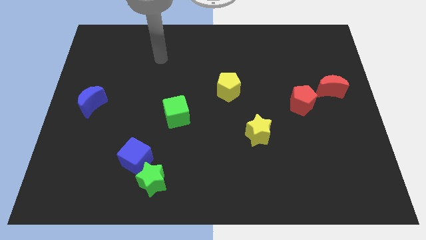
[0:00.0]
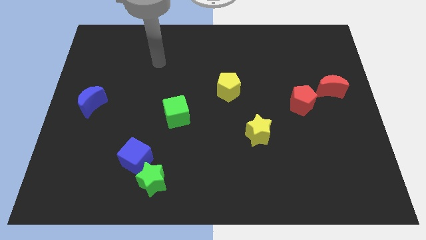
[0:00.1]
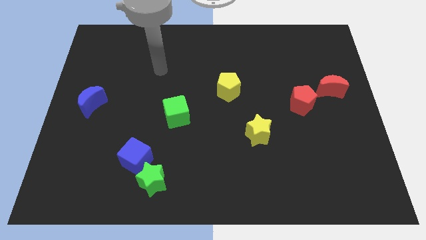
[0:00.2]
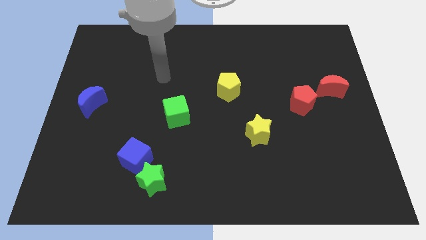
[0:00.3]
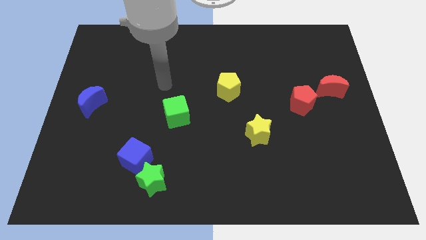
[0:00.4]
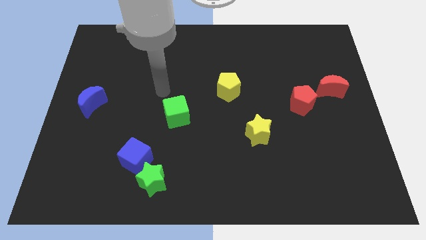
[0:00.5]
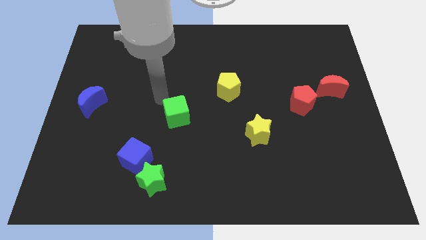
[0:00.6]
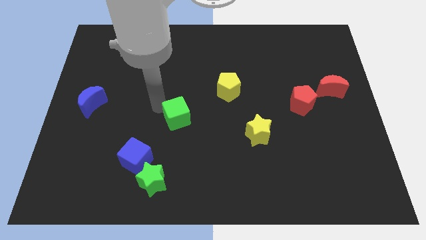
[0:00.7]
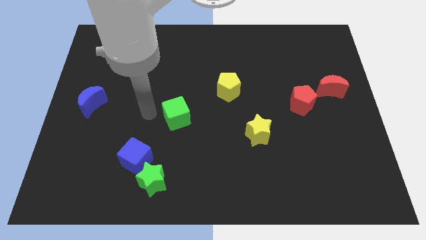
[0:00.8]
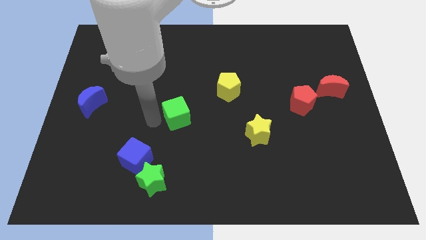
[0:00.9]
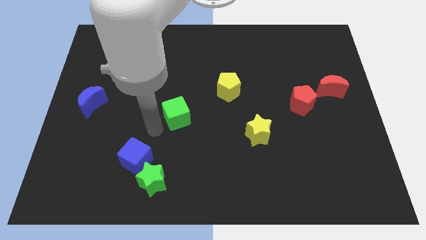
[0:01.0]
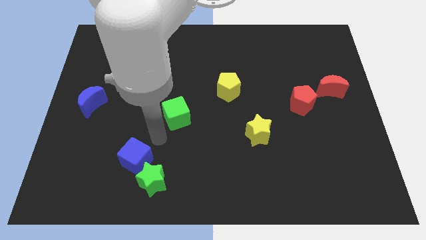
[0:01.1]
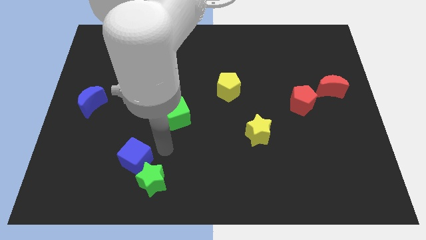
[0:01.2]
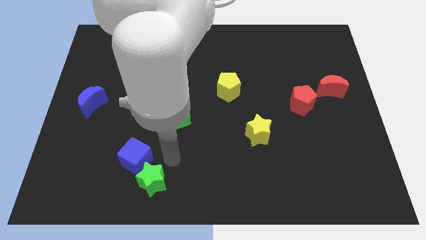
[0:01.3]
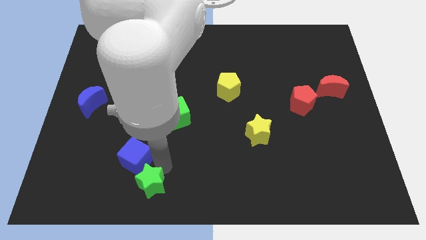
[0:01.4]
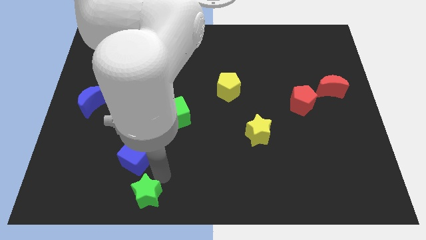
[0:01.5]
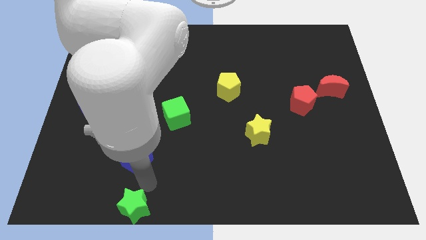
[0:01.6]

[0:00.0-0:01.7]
separate the blue cube from the green star

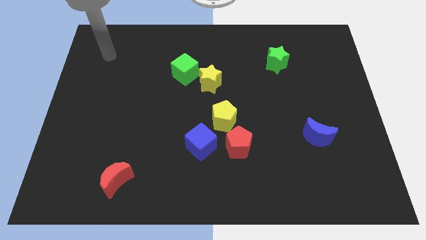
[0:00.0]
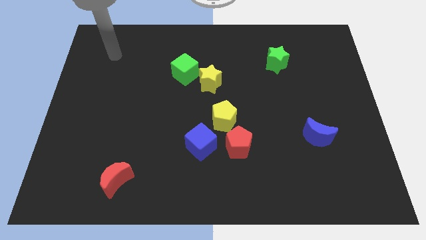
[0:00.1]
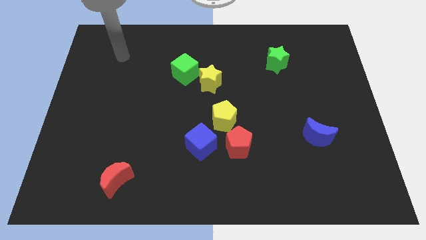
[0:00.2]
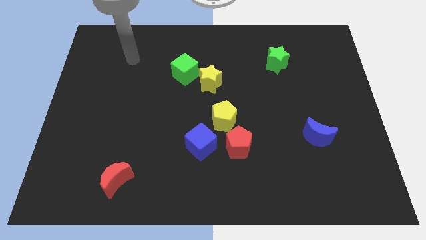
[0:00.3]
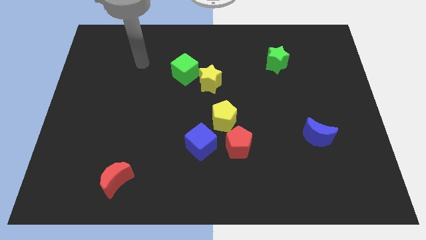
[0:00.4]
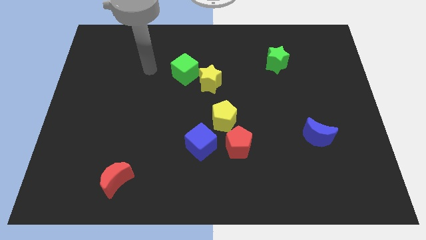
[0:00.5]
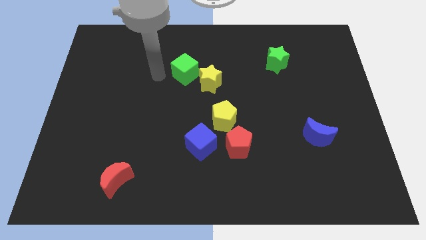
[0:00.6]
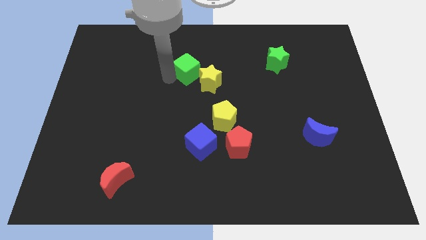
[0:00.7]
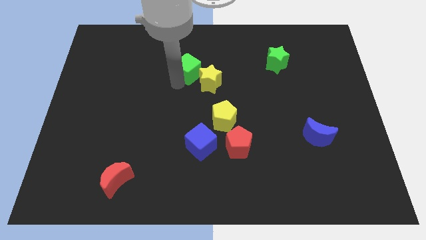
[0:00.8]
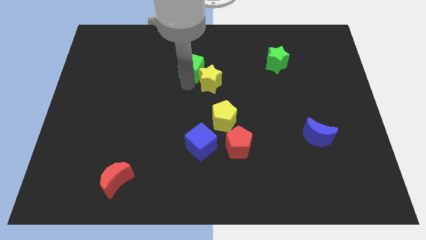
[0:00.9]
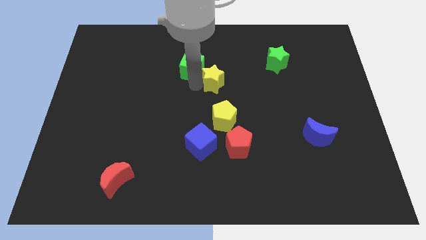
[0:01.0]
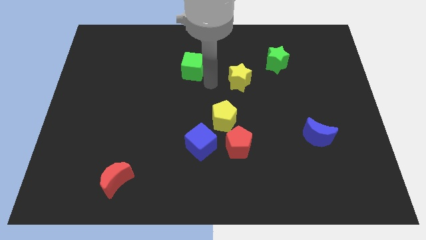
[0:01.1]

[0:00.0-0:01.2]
pull the green cube apart from the yellow star

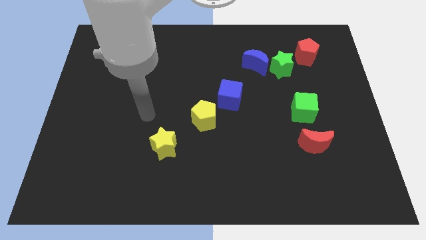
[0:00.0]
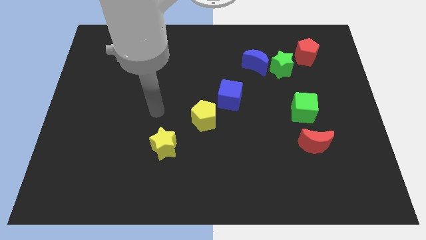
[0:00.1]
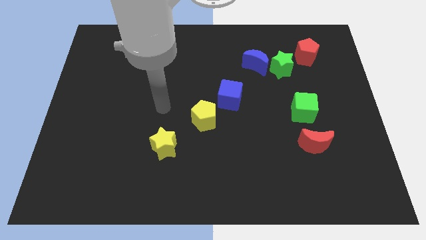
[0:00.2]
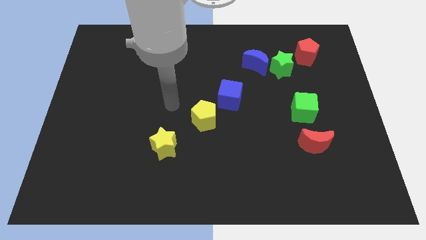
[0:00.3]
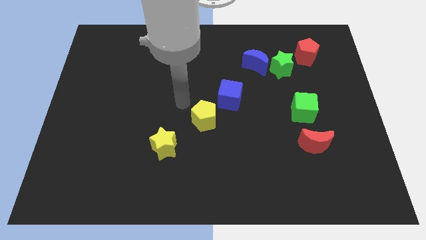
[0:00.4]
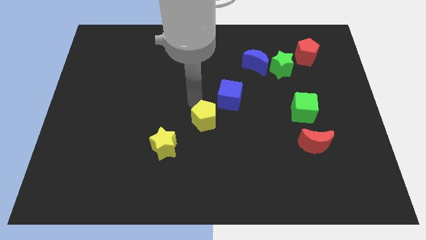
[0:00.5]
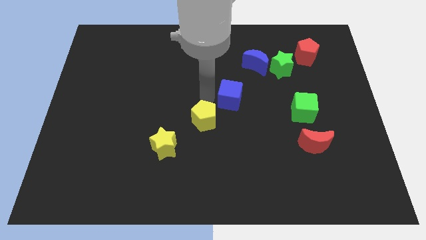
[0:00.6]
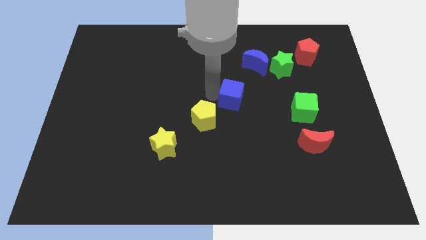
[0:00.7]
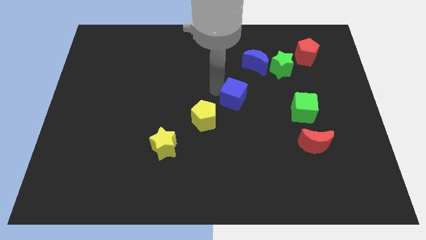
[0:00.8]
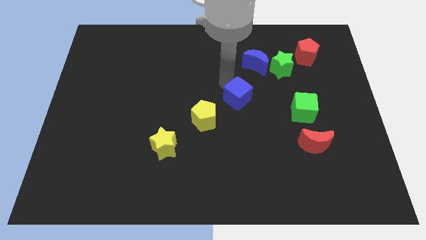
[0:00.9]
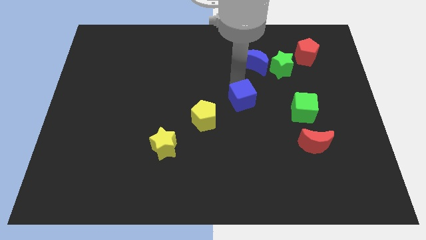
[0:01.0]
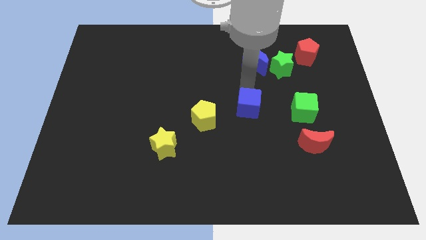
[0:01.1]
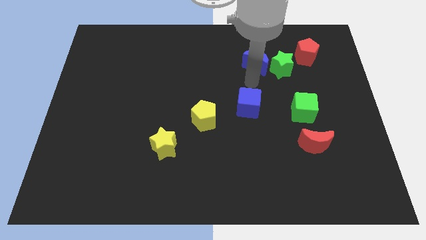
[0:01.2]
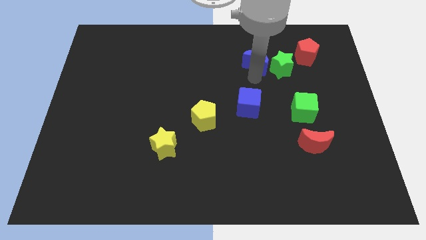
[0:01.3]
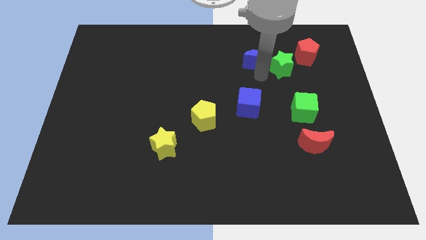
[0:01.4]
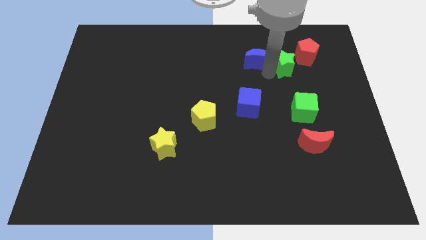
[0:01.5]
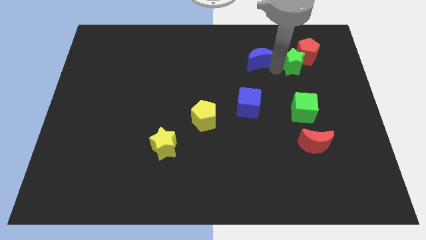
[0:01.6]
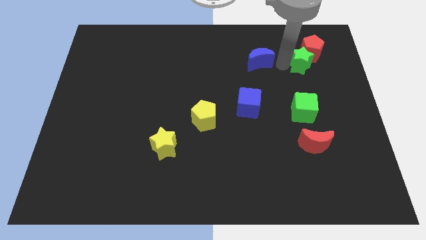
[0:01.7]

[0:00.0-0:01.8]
move the blue moon away from the green star

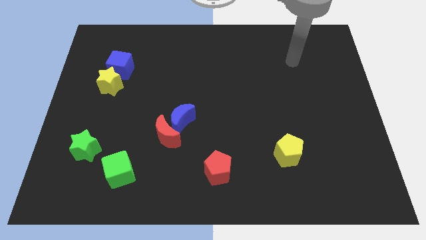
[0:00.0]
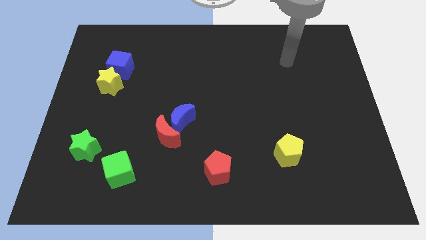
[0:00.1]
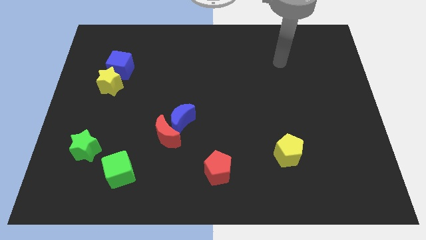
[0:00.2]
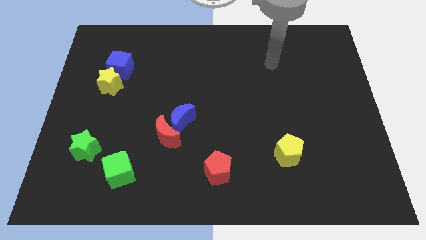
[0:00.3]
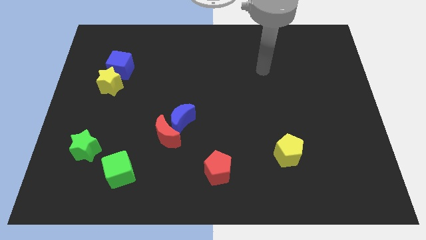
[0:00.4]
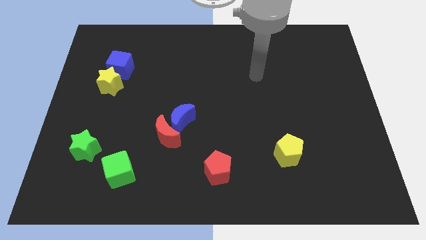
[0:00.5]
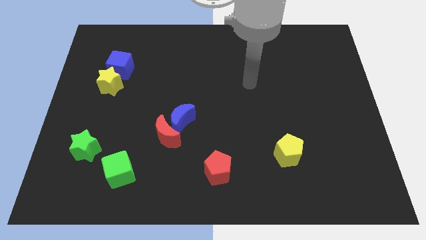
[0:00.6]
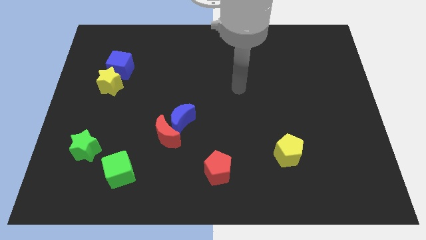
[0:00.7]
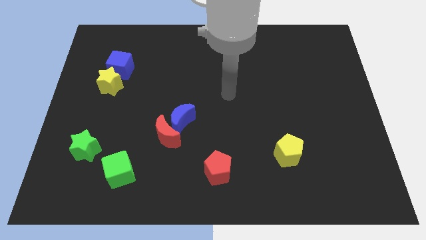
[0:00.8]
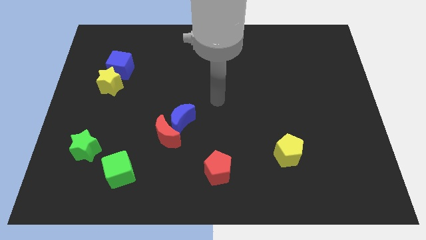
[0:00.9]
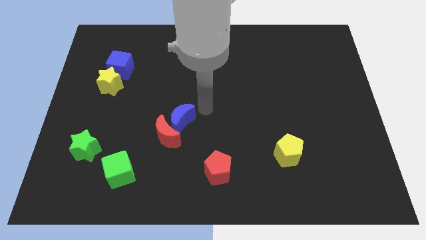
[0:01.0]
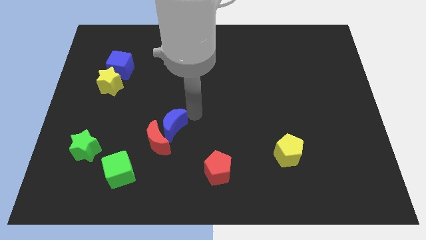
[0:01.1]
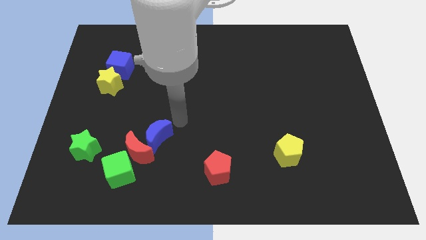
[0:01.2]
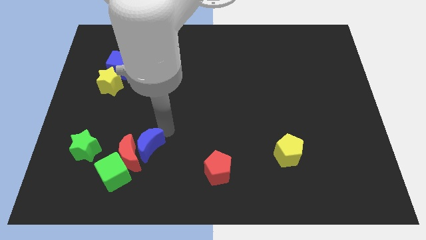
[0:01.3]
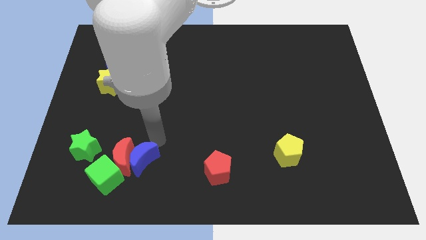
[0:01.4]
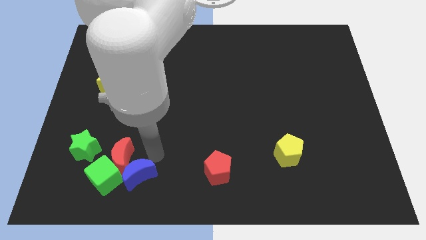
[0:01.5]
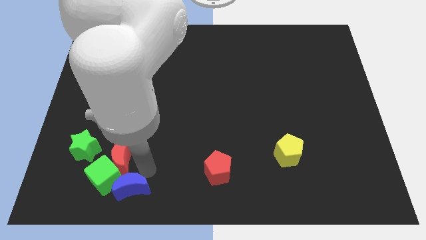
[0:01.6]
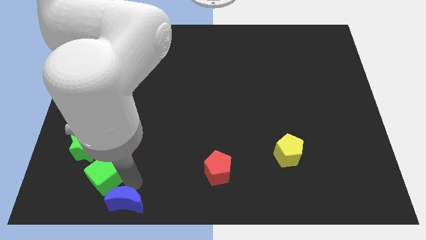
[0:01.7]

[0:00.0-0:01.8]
move the red moon away from the blue moon

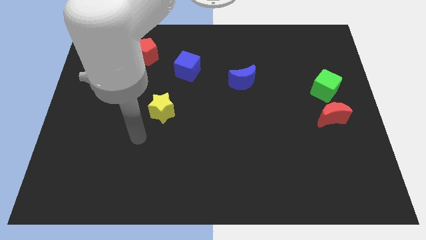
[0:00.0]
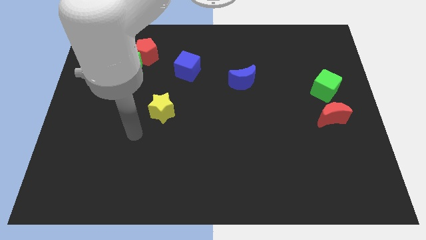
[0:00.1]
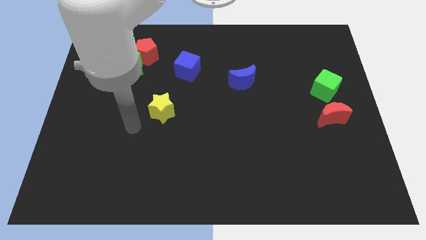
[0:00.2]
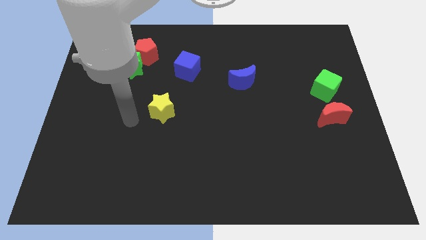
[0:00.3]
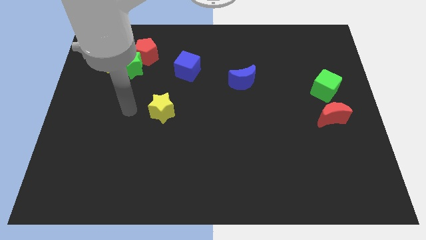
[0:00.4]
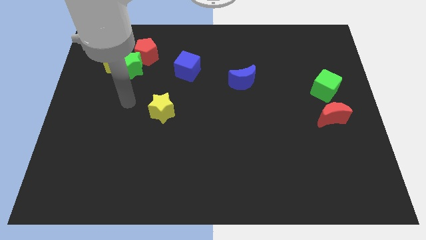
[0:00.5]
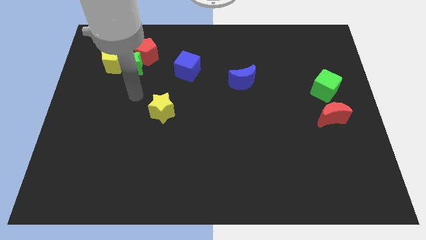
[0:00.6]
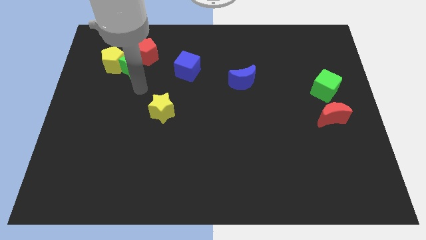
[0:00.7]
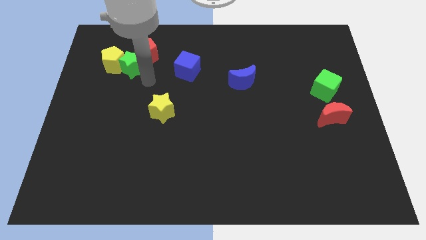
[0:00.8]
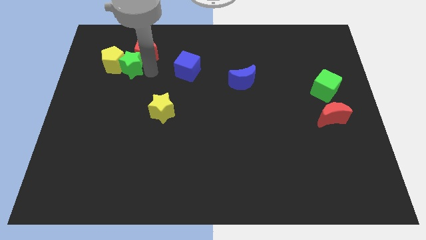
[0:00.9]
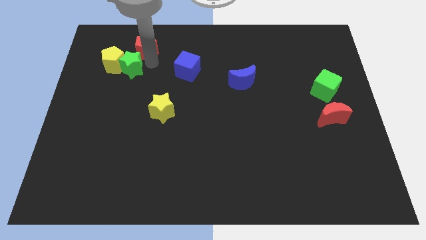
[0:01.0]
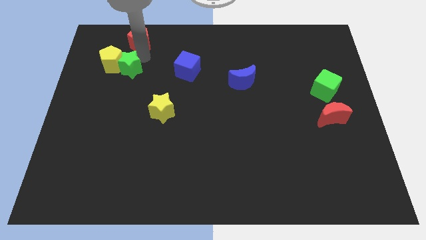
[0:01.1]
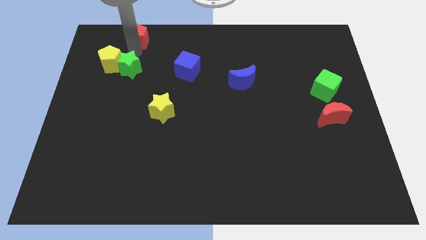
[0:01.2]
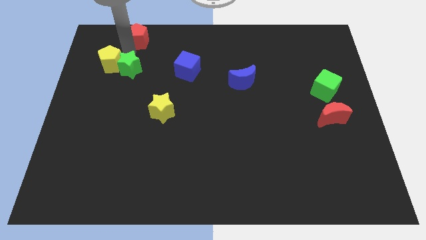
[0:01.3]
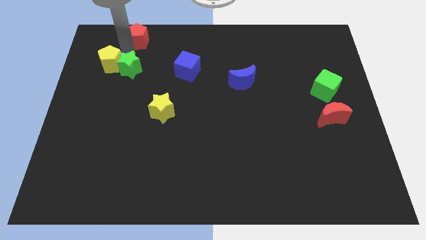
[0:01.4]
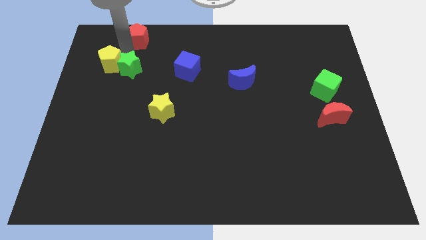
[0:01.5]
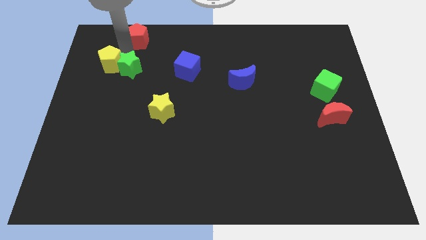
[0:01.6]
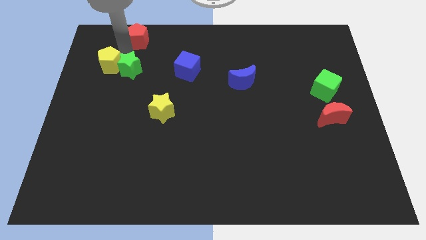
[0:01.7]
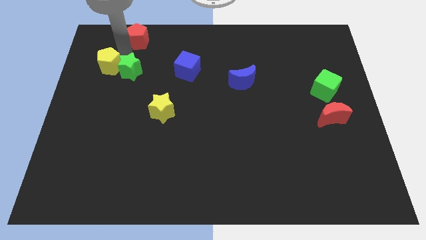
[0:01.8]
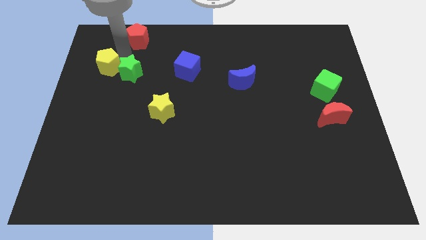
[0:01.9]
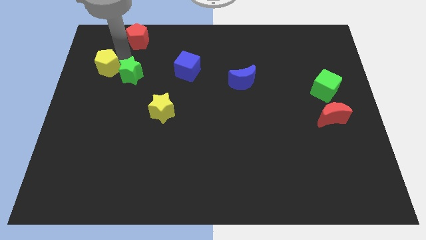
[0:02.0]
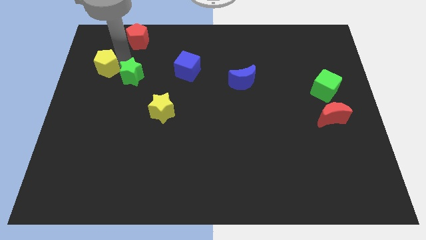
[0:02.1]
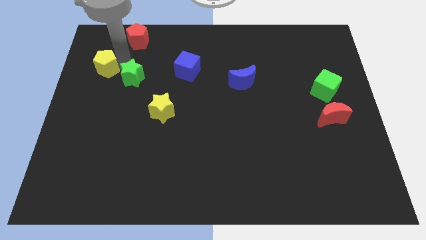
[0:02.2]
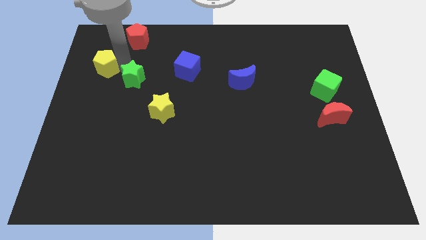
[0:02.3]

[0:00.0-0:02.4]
move the green star away from the yellow pentagon and red pentagon

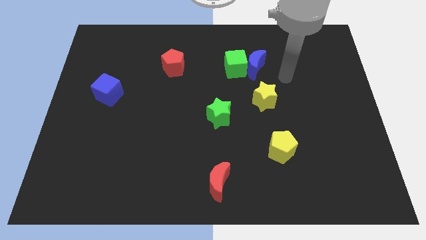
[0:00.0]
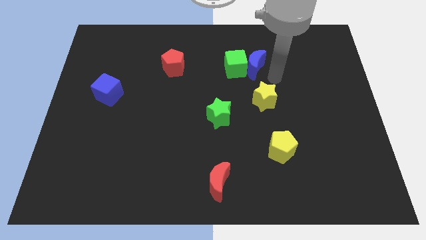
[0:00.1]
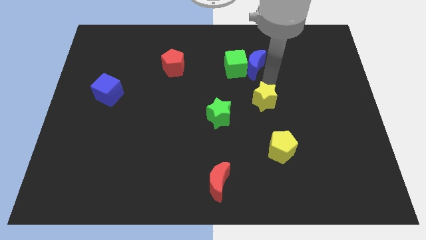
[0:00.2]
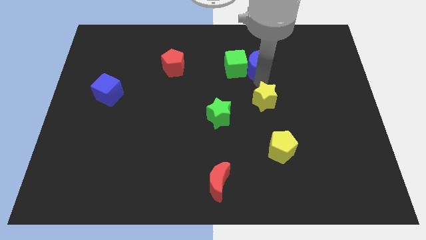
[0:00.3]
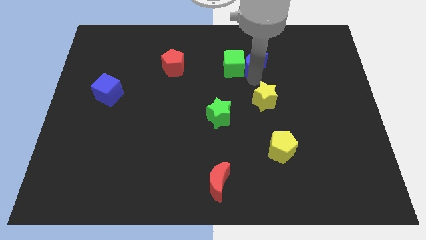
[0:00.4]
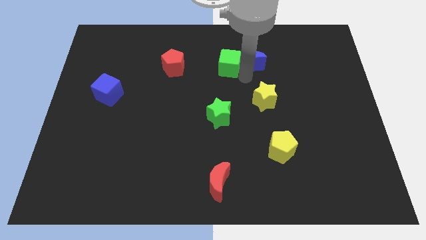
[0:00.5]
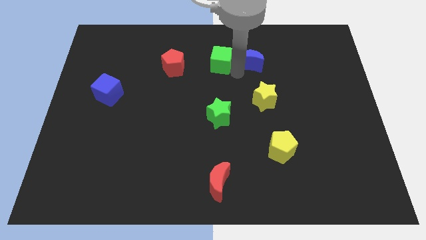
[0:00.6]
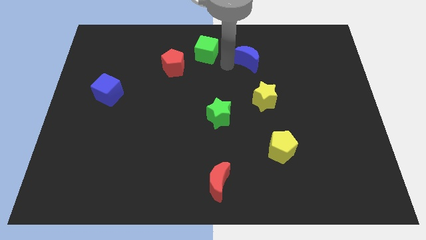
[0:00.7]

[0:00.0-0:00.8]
separate the blue moon from the green cube
